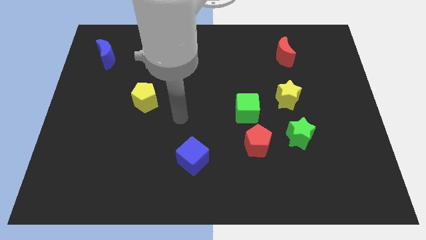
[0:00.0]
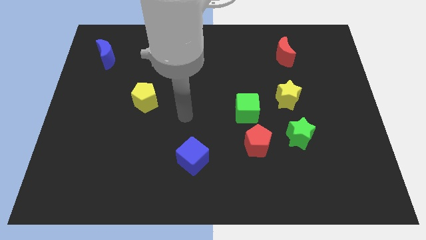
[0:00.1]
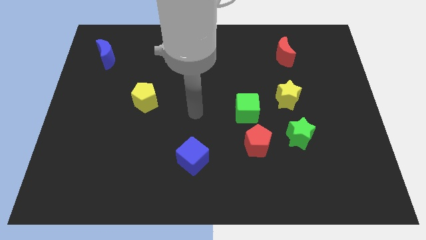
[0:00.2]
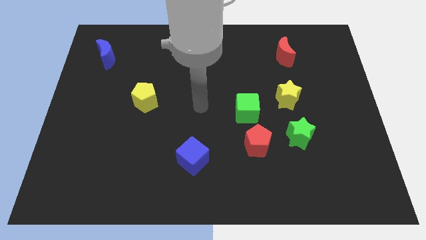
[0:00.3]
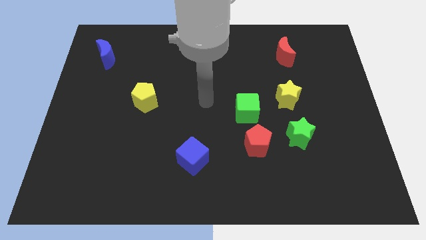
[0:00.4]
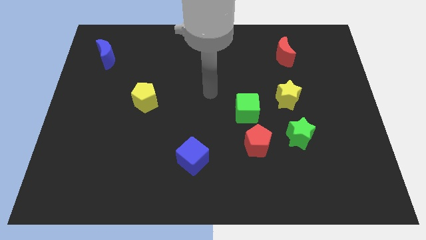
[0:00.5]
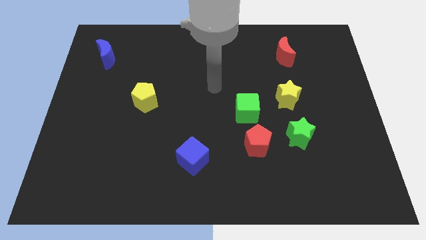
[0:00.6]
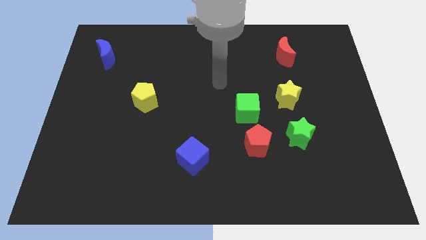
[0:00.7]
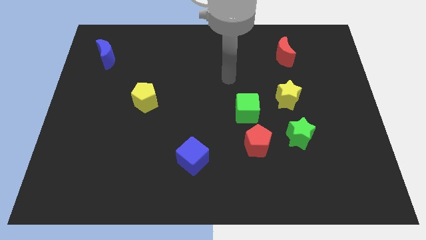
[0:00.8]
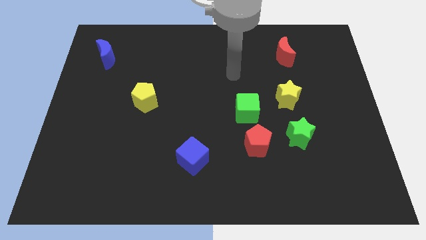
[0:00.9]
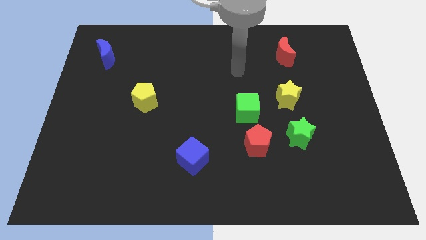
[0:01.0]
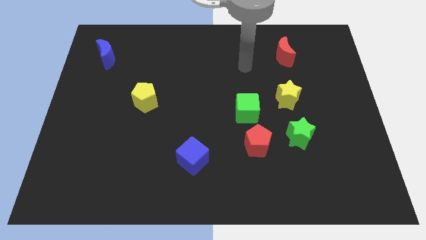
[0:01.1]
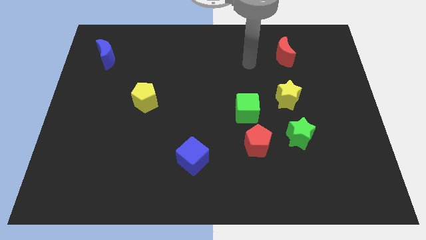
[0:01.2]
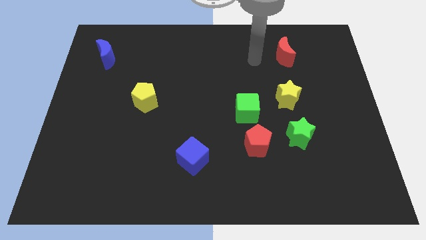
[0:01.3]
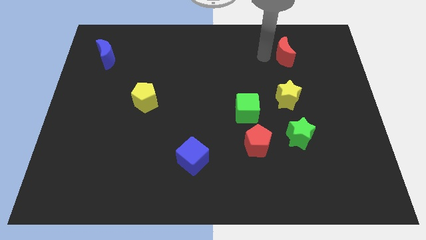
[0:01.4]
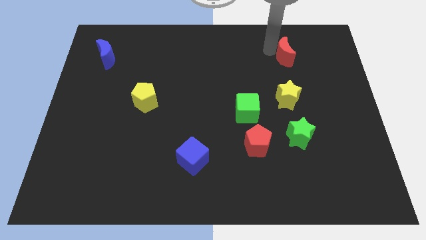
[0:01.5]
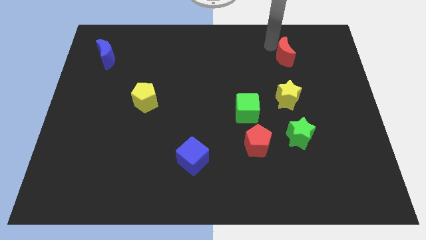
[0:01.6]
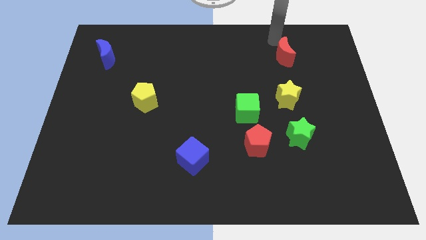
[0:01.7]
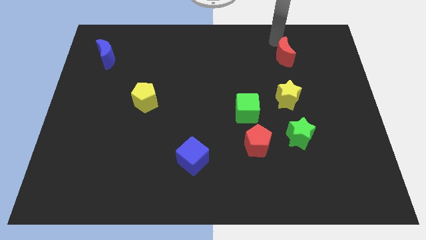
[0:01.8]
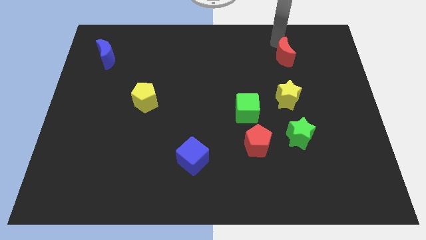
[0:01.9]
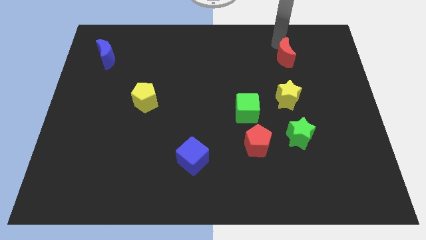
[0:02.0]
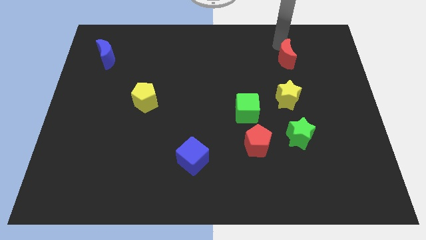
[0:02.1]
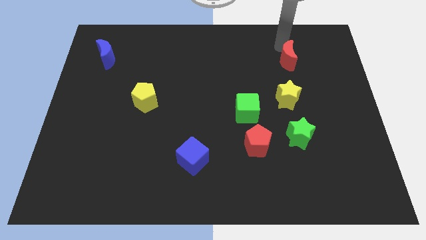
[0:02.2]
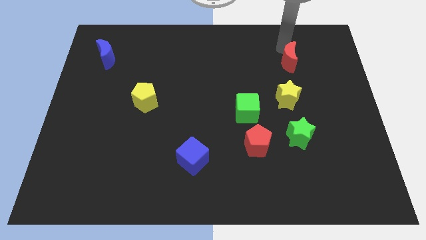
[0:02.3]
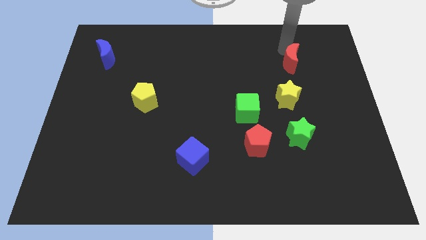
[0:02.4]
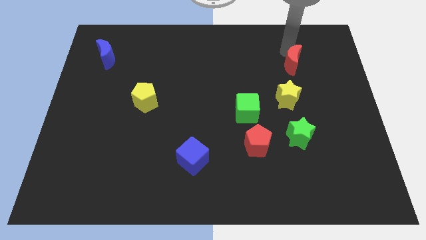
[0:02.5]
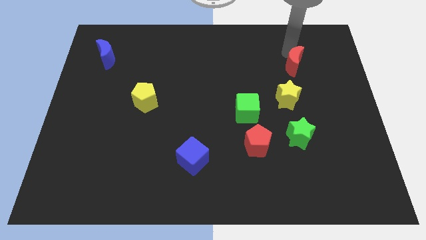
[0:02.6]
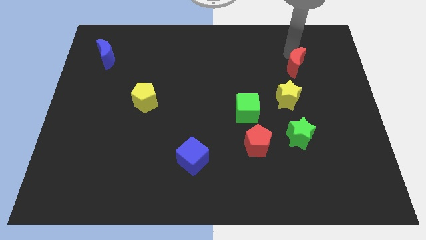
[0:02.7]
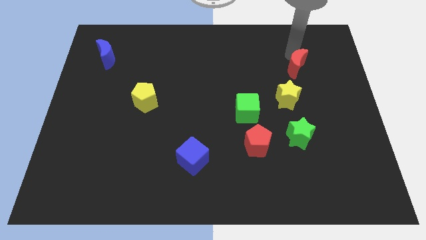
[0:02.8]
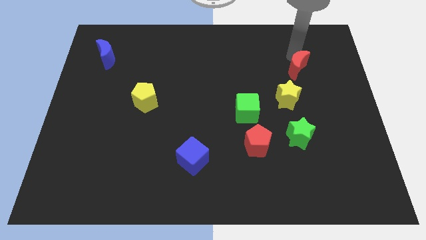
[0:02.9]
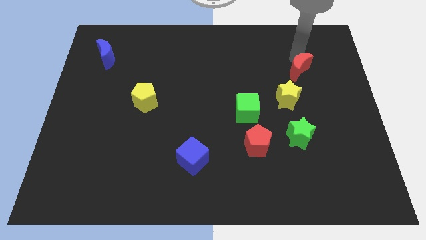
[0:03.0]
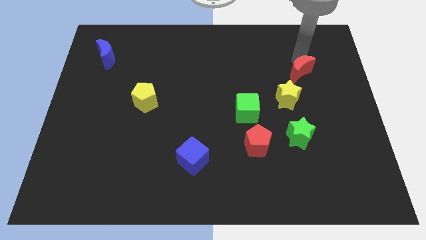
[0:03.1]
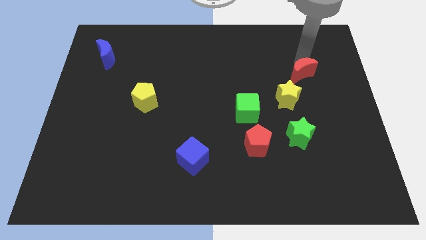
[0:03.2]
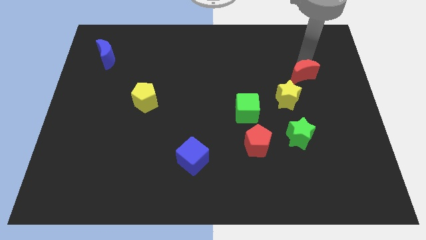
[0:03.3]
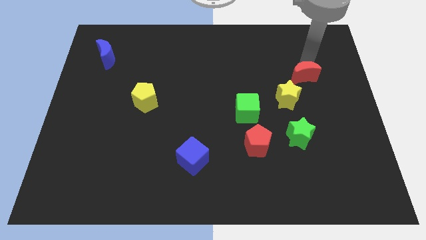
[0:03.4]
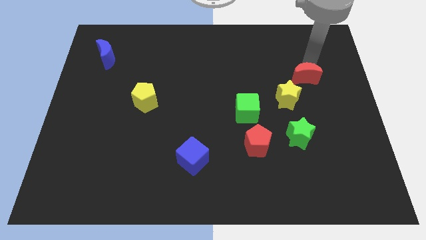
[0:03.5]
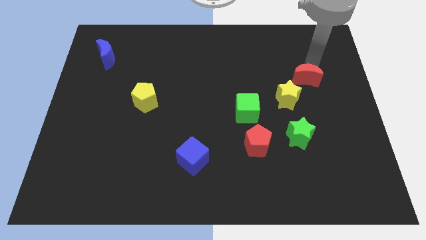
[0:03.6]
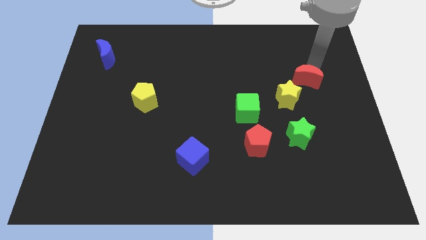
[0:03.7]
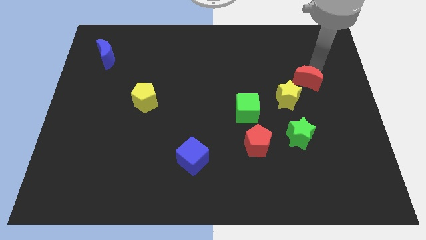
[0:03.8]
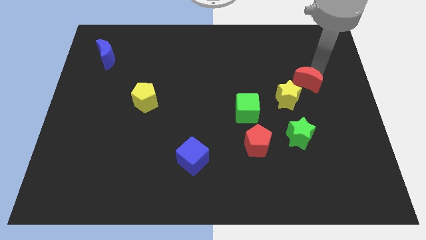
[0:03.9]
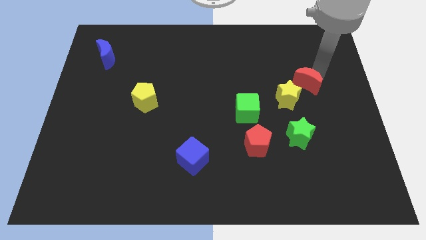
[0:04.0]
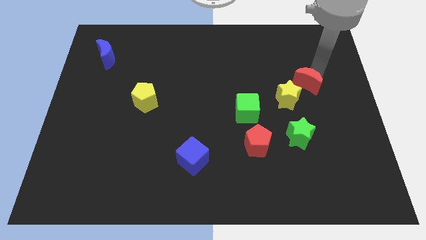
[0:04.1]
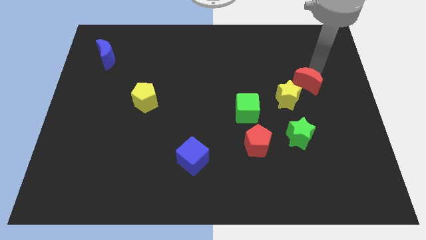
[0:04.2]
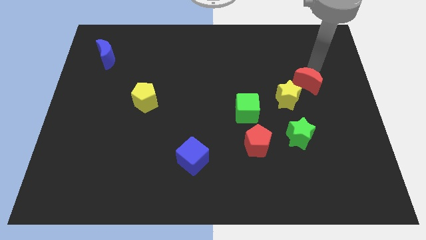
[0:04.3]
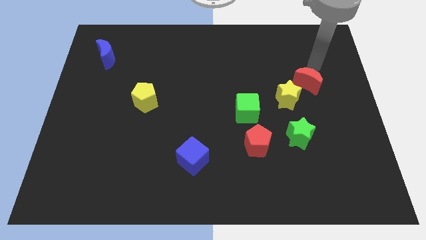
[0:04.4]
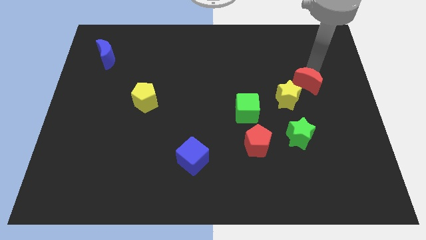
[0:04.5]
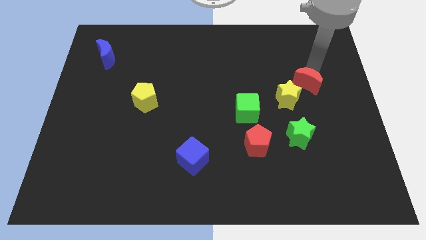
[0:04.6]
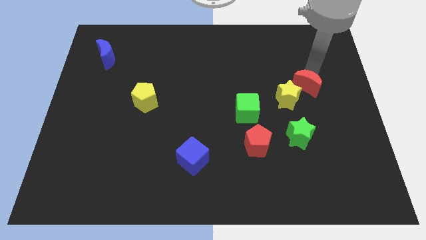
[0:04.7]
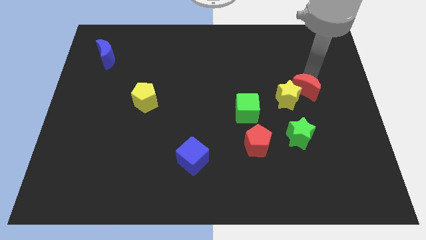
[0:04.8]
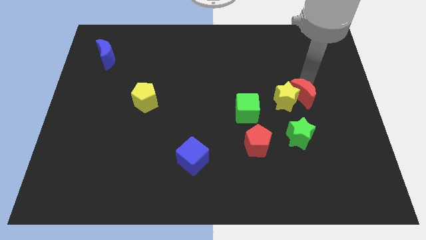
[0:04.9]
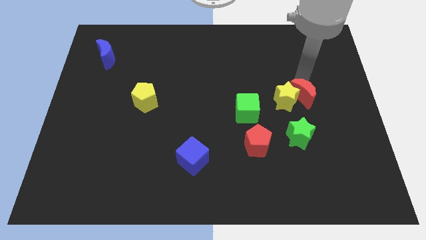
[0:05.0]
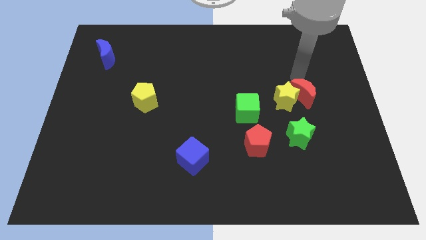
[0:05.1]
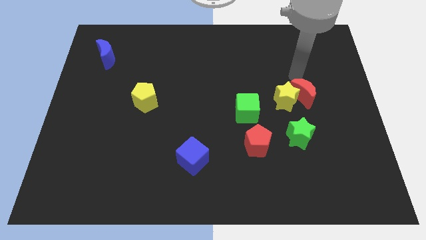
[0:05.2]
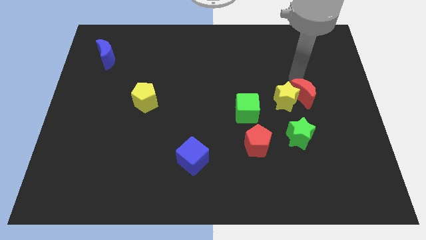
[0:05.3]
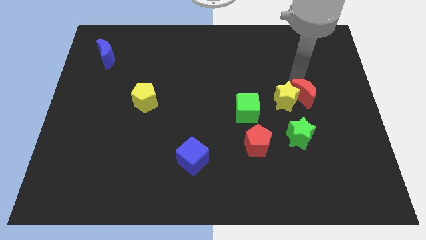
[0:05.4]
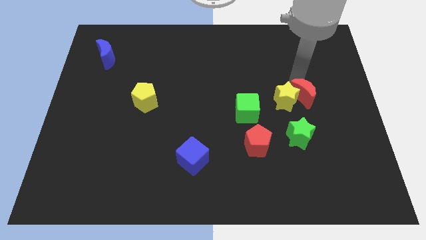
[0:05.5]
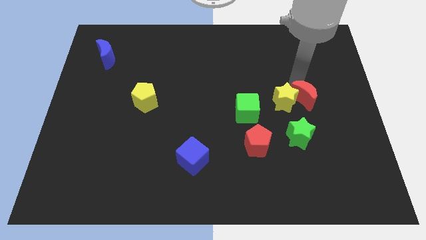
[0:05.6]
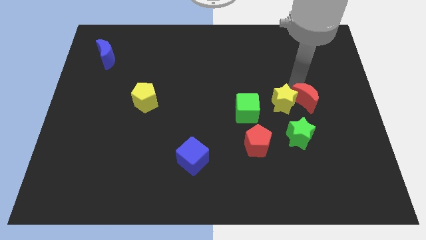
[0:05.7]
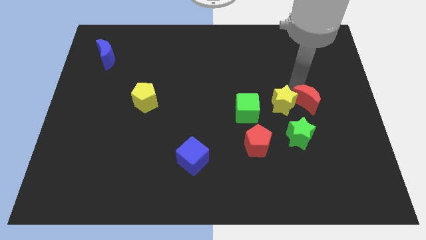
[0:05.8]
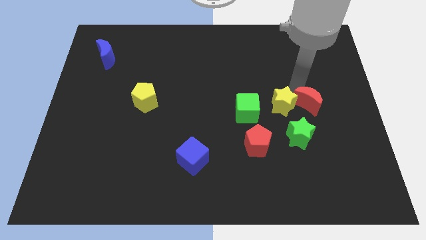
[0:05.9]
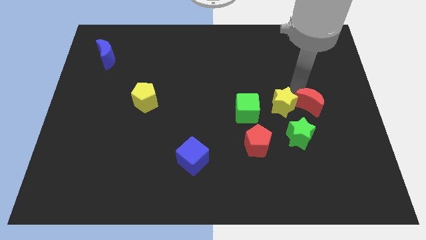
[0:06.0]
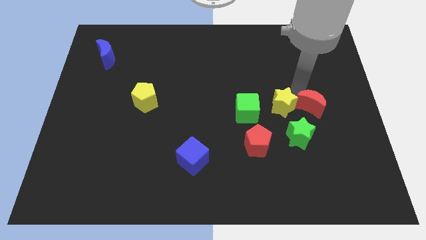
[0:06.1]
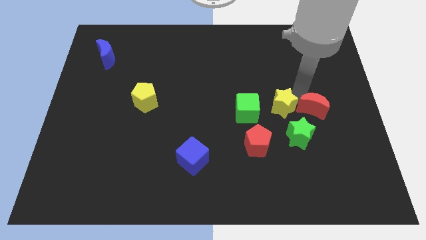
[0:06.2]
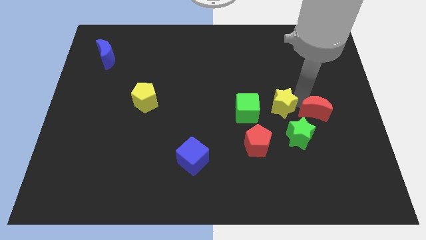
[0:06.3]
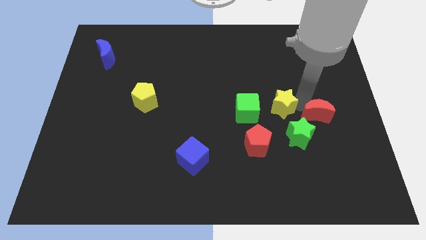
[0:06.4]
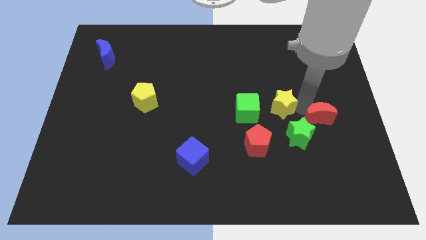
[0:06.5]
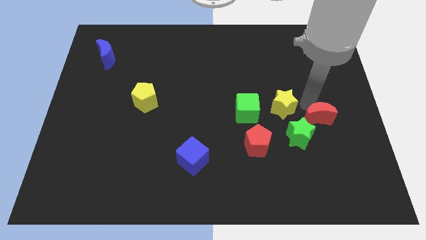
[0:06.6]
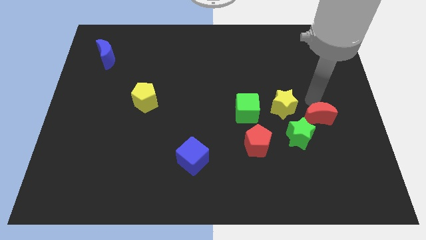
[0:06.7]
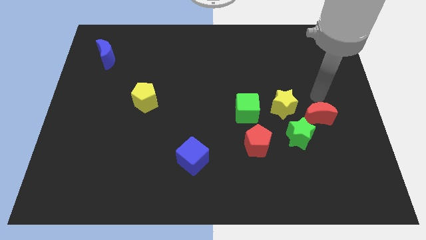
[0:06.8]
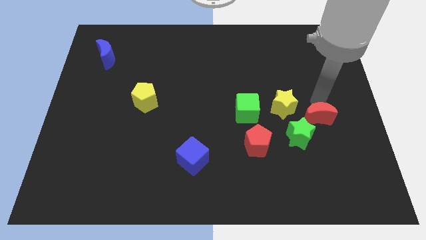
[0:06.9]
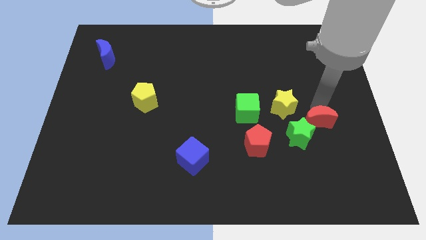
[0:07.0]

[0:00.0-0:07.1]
move the red moon down

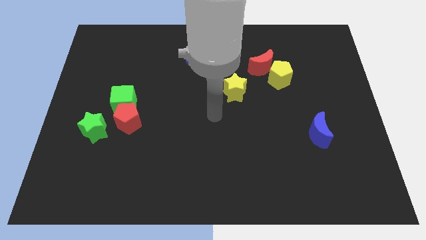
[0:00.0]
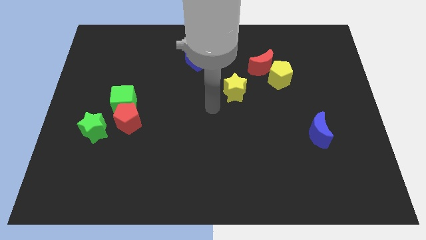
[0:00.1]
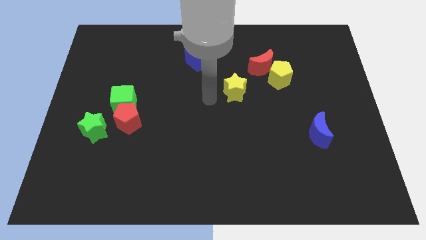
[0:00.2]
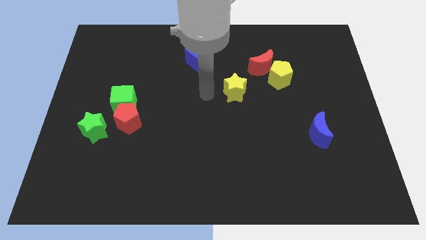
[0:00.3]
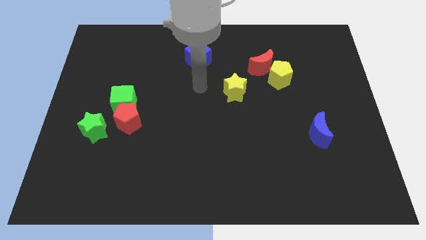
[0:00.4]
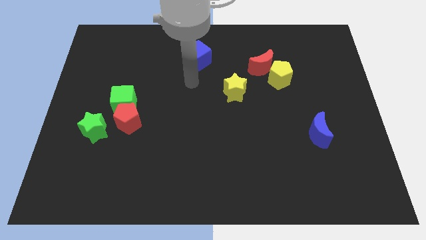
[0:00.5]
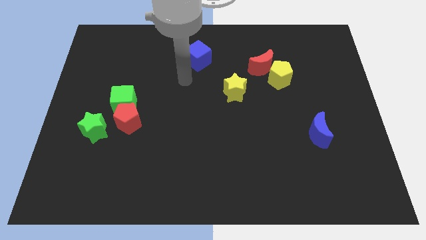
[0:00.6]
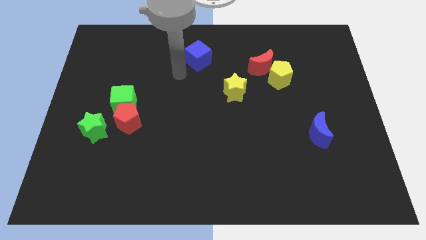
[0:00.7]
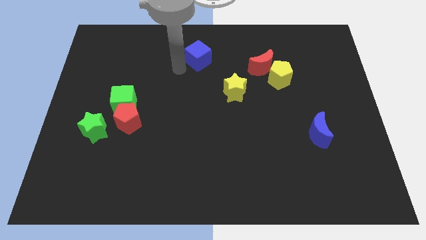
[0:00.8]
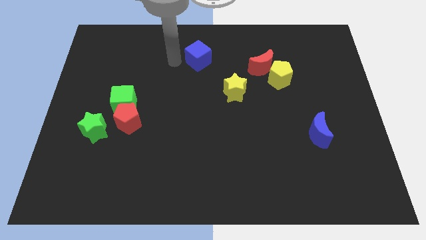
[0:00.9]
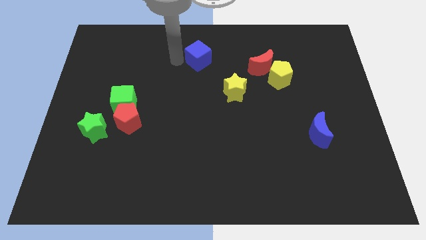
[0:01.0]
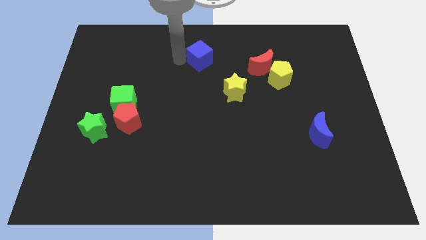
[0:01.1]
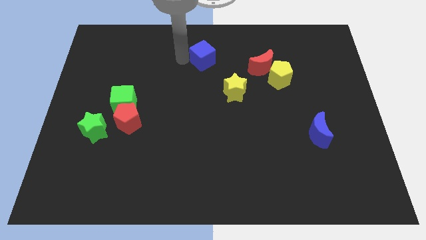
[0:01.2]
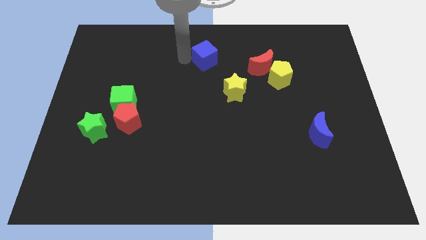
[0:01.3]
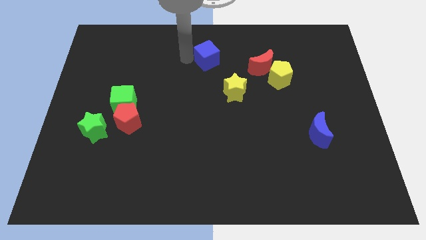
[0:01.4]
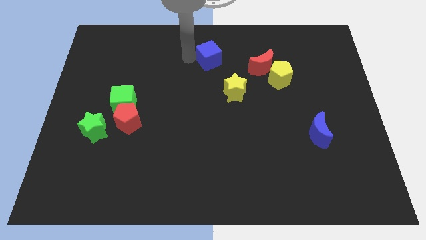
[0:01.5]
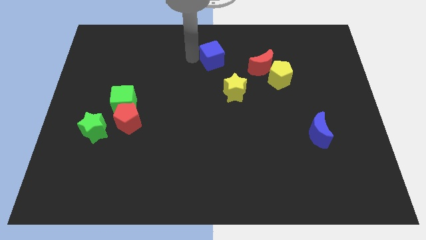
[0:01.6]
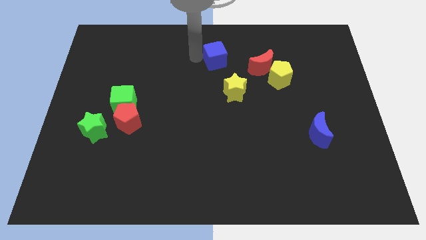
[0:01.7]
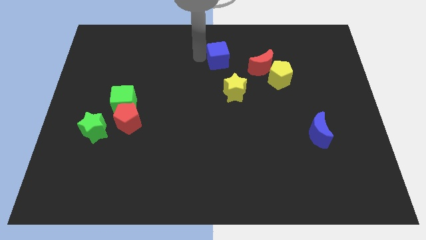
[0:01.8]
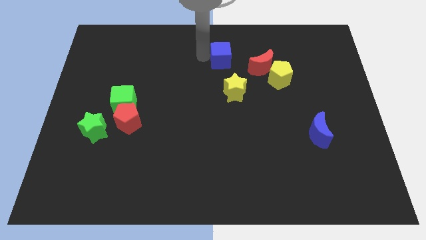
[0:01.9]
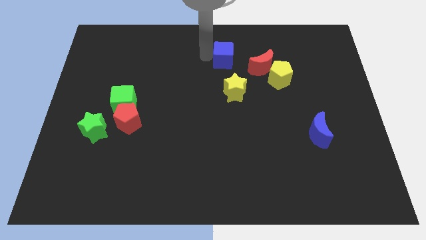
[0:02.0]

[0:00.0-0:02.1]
slightly push the blue cube right
